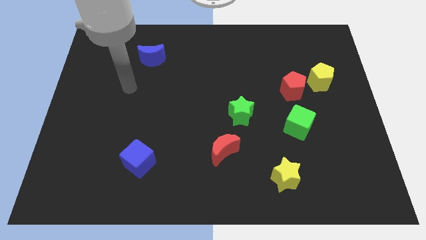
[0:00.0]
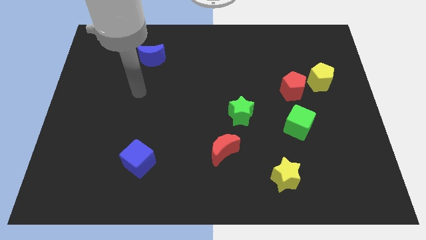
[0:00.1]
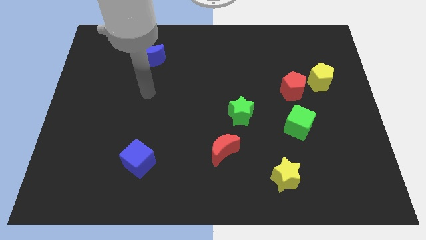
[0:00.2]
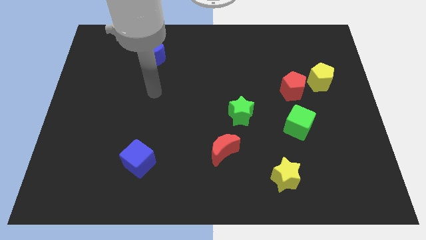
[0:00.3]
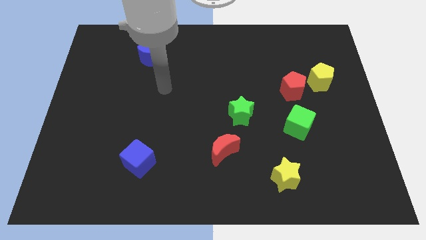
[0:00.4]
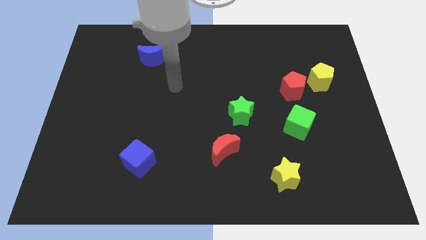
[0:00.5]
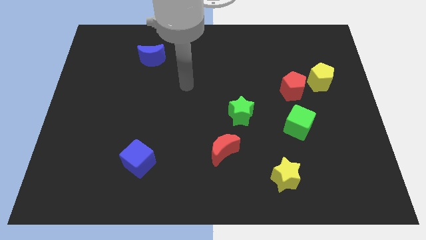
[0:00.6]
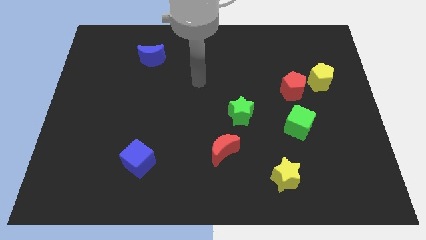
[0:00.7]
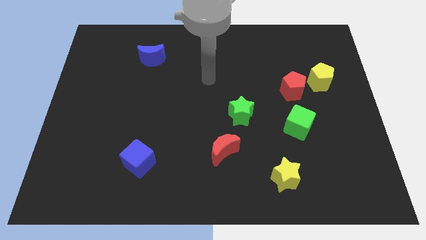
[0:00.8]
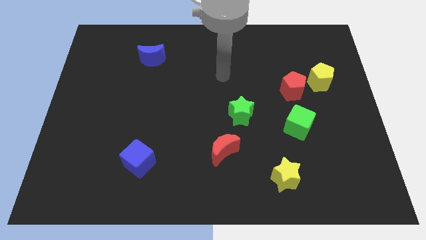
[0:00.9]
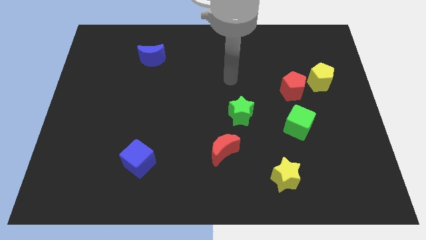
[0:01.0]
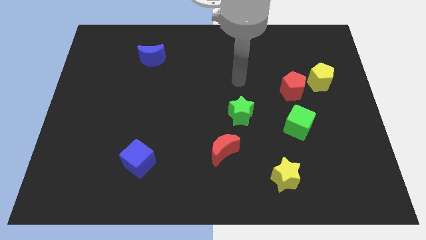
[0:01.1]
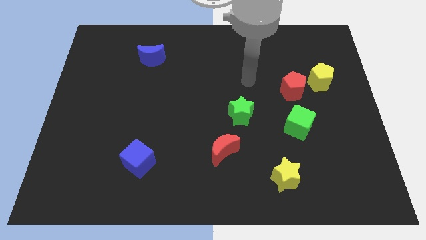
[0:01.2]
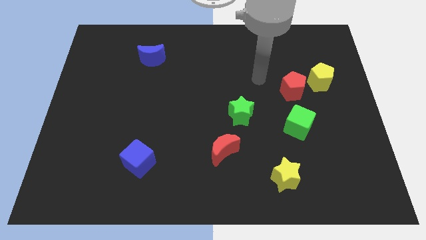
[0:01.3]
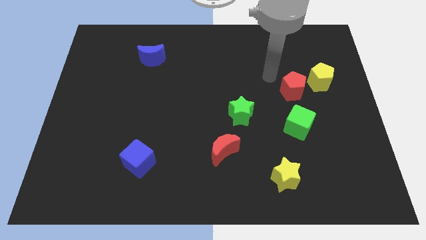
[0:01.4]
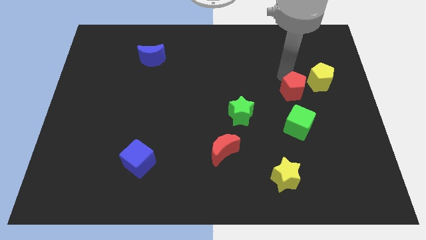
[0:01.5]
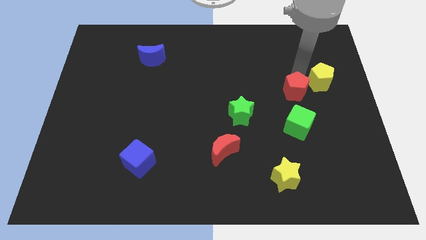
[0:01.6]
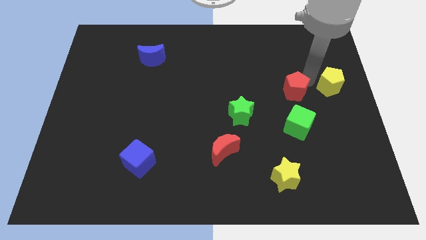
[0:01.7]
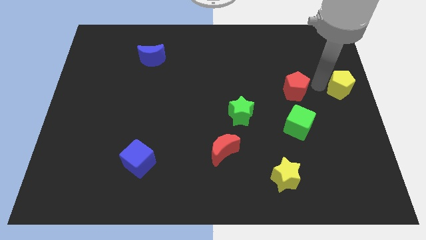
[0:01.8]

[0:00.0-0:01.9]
separate the red pentagon from the yellow pentagon

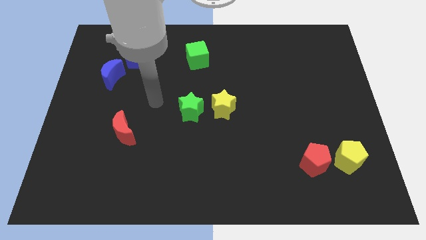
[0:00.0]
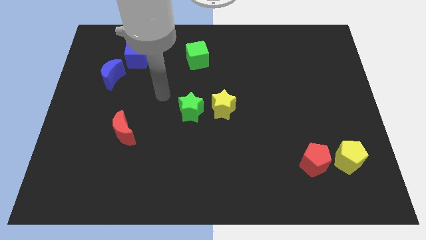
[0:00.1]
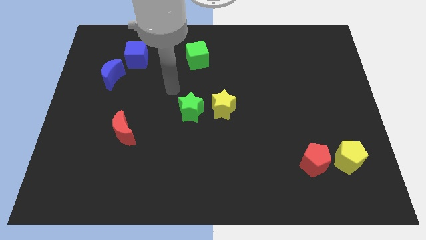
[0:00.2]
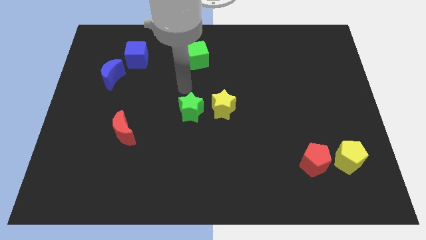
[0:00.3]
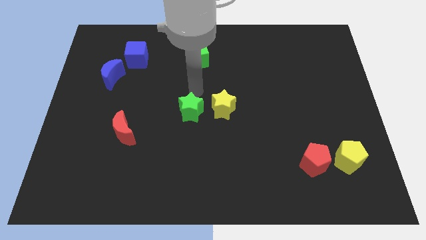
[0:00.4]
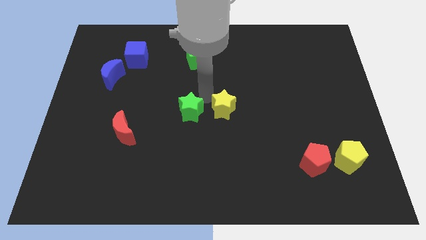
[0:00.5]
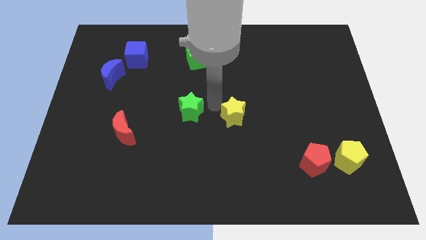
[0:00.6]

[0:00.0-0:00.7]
pull the green star apart from the yellow star

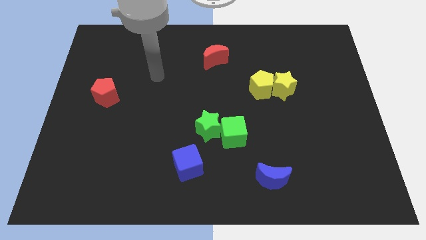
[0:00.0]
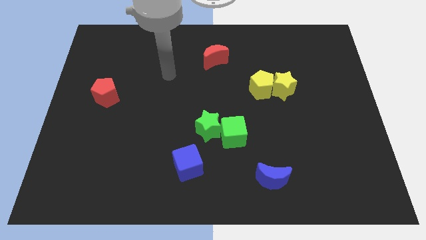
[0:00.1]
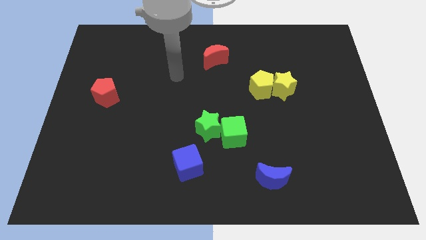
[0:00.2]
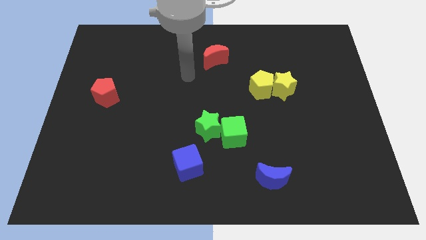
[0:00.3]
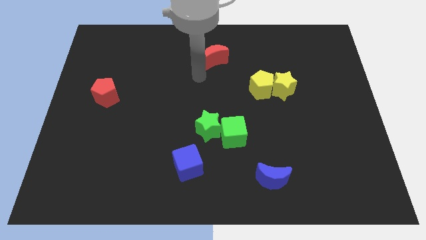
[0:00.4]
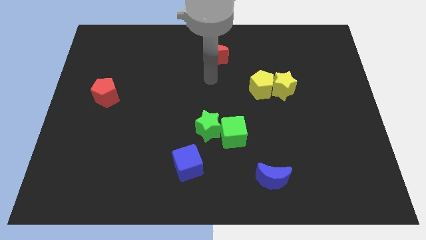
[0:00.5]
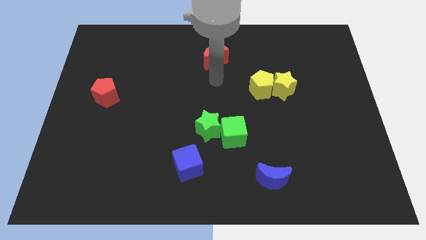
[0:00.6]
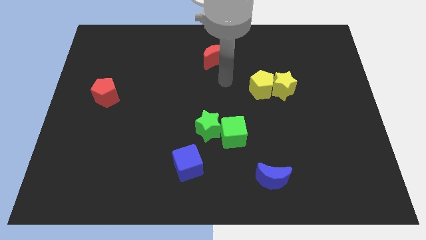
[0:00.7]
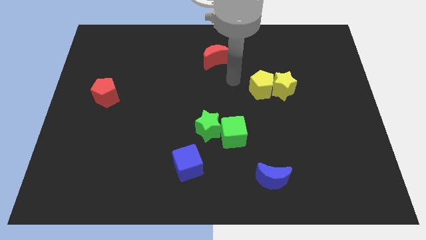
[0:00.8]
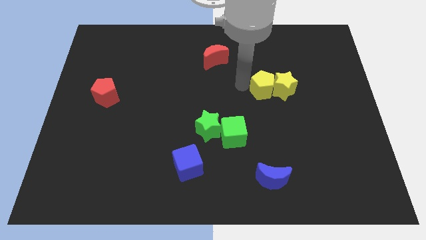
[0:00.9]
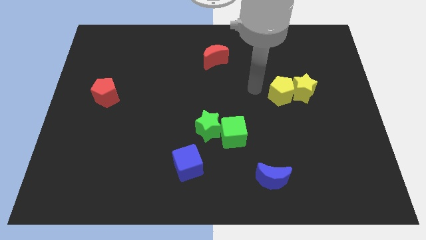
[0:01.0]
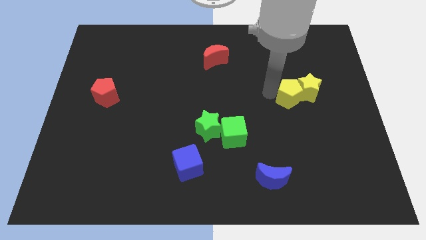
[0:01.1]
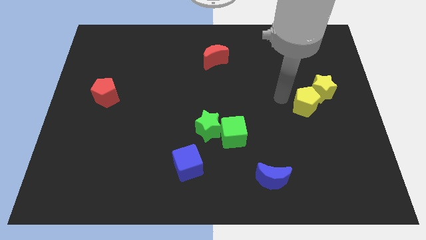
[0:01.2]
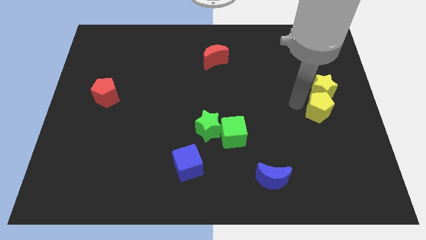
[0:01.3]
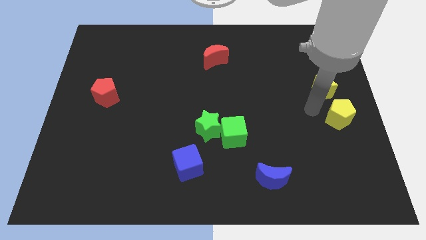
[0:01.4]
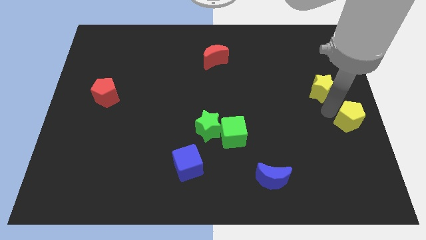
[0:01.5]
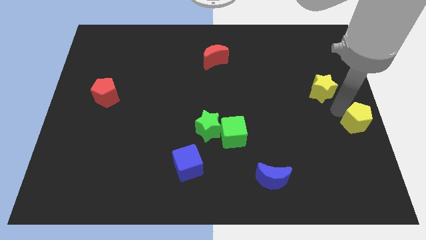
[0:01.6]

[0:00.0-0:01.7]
pull the yellow star apart from the yellow pentagon

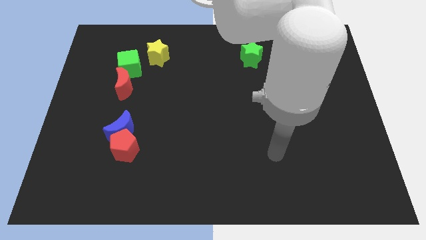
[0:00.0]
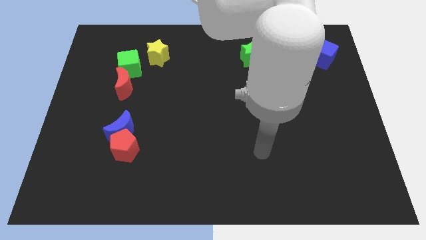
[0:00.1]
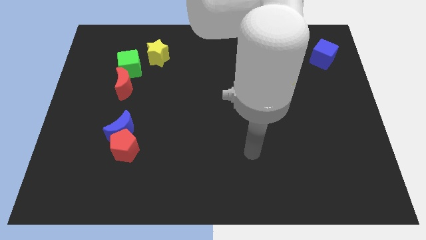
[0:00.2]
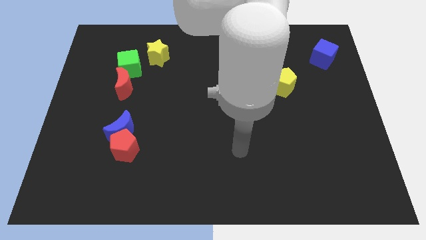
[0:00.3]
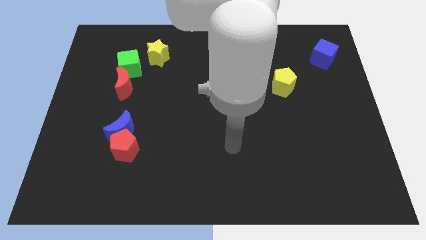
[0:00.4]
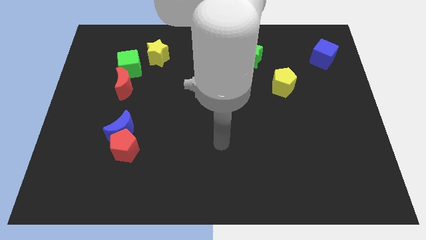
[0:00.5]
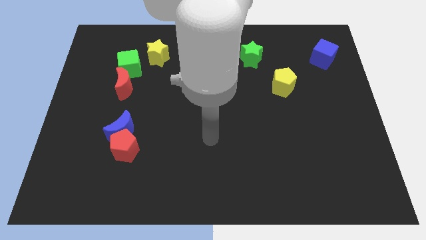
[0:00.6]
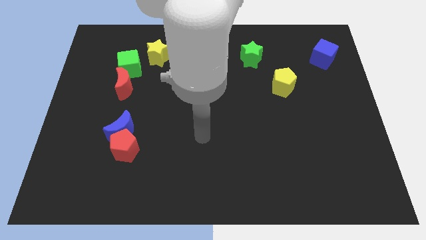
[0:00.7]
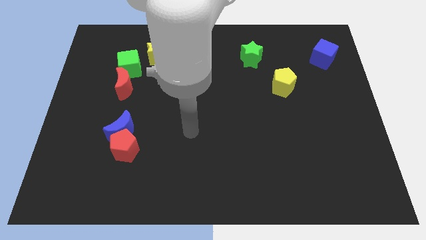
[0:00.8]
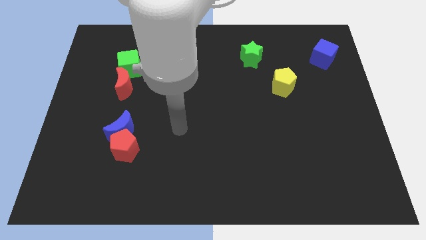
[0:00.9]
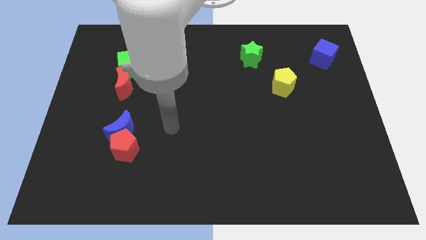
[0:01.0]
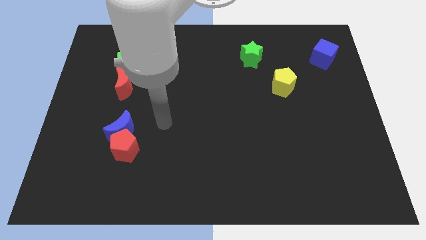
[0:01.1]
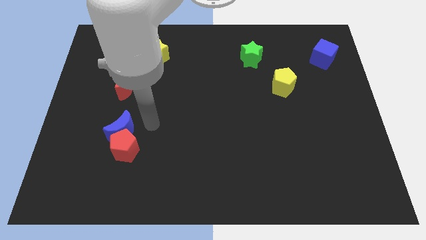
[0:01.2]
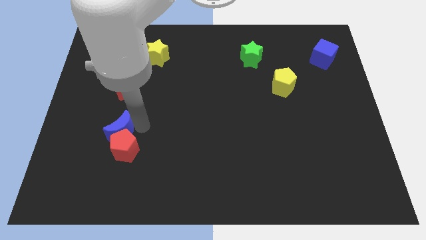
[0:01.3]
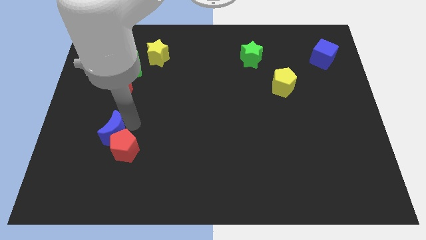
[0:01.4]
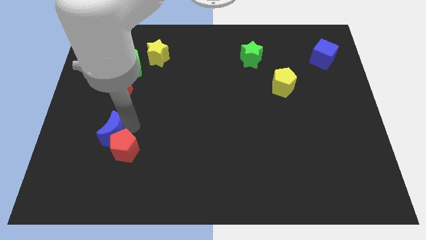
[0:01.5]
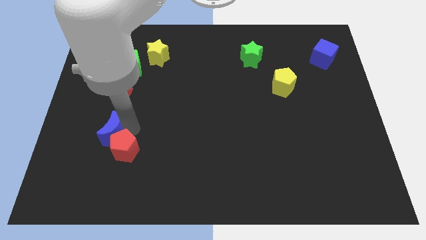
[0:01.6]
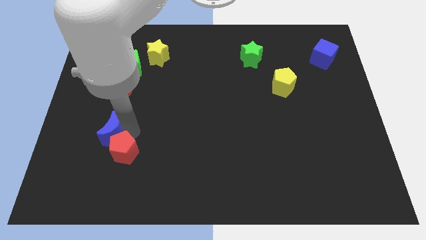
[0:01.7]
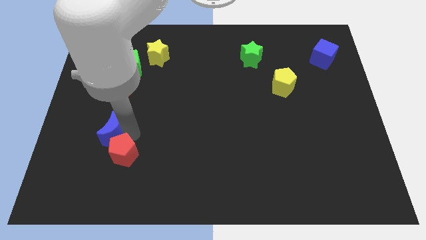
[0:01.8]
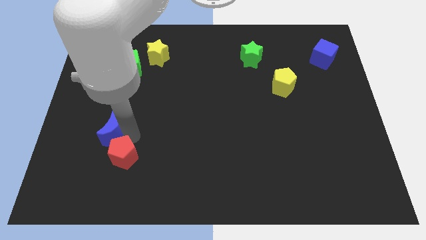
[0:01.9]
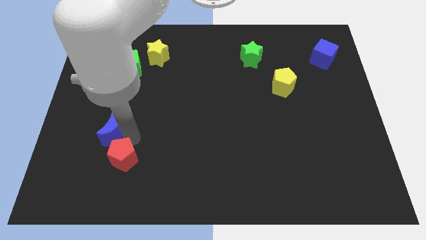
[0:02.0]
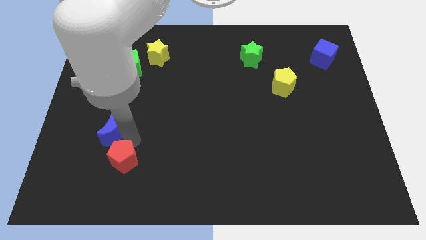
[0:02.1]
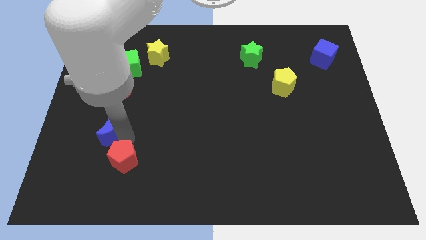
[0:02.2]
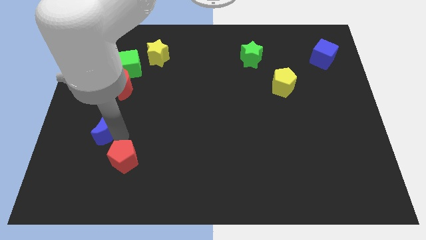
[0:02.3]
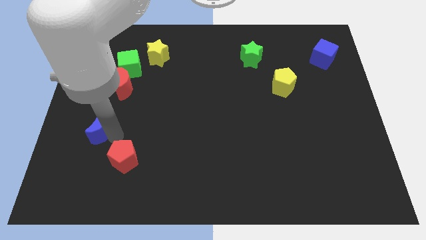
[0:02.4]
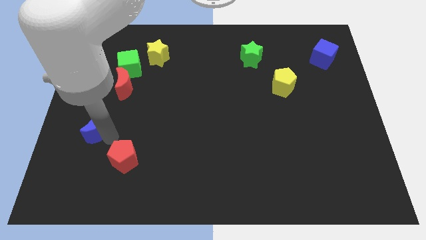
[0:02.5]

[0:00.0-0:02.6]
separate the red pentagon from the blue moon

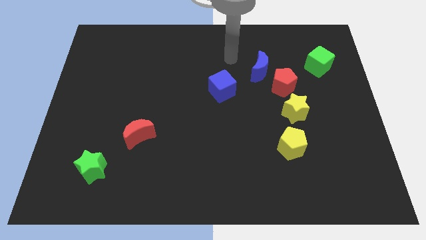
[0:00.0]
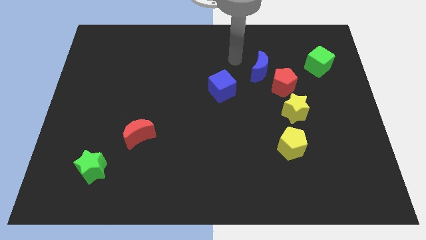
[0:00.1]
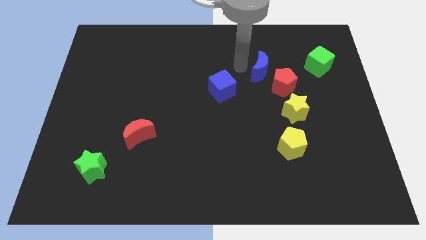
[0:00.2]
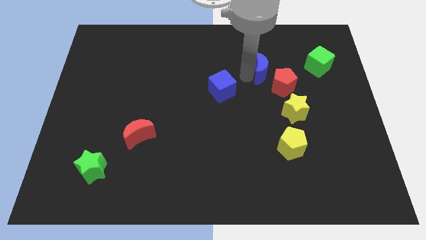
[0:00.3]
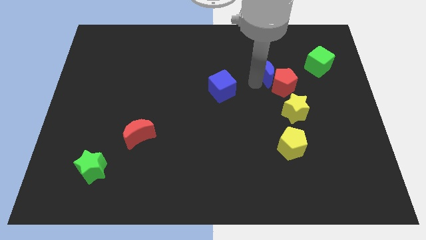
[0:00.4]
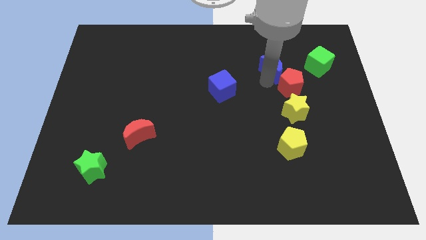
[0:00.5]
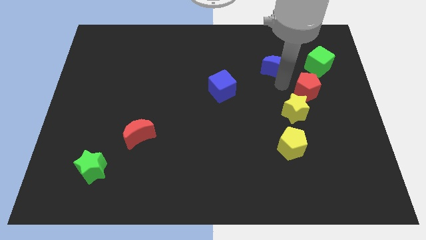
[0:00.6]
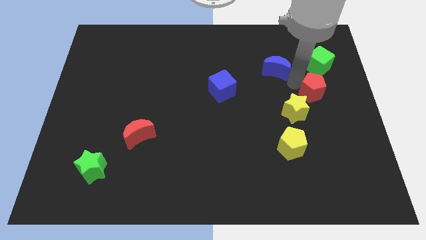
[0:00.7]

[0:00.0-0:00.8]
pull the blue moon apart from the red pentagon

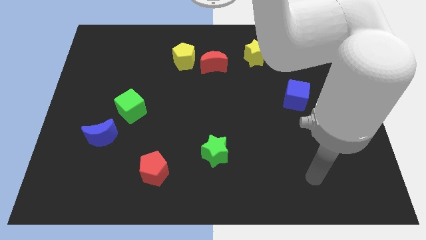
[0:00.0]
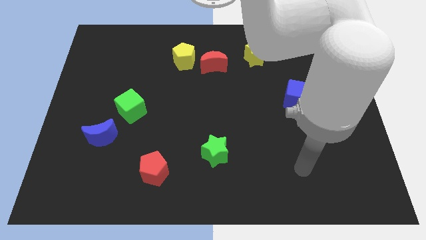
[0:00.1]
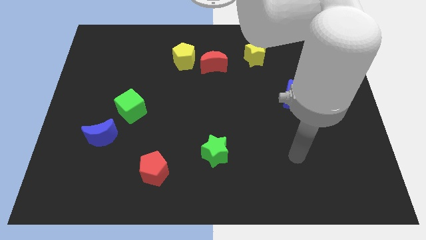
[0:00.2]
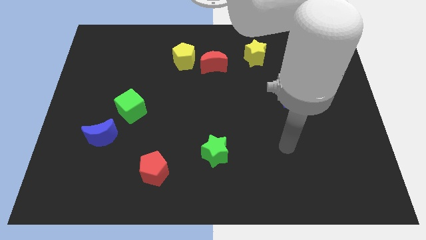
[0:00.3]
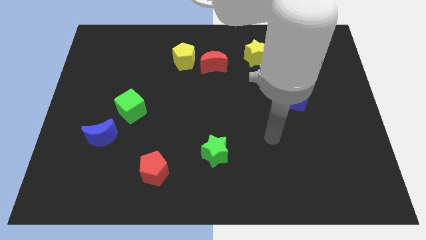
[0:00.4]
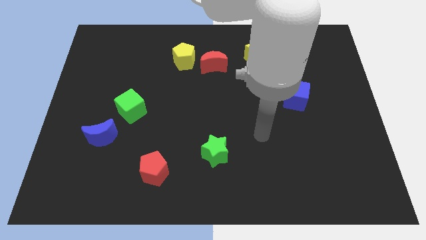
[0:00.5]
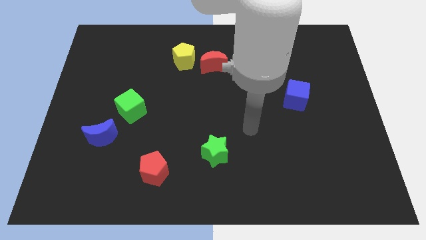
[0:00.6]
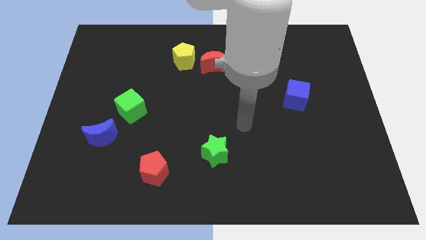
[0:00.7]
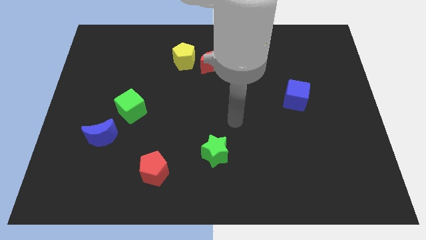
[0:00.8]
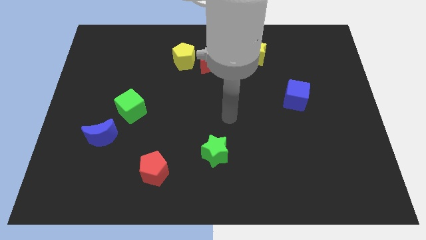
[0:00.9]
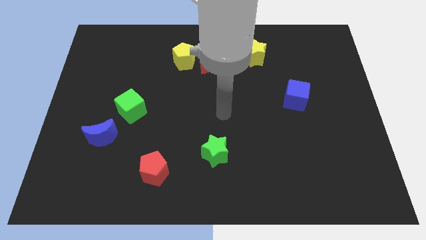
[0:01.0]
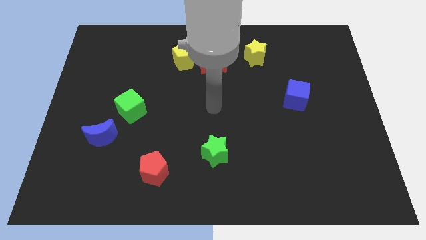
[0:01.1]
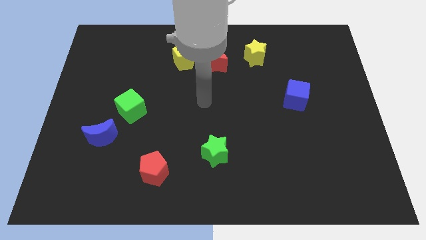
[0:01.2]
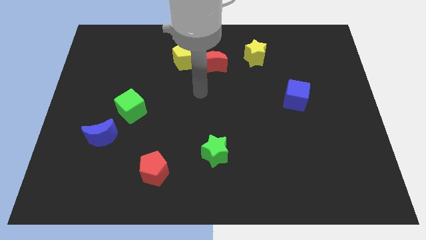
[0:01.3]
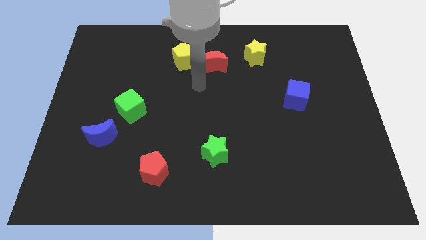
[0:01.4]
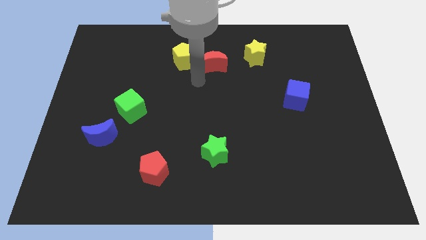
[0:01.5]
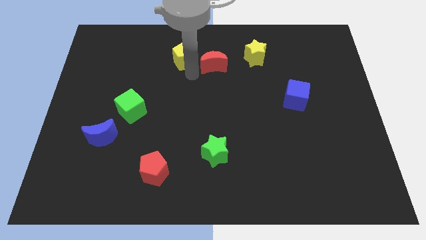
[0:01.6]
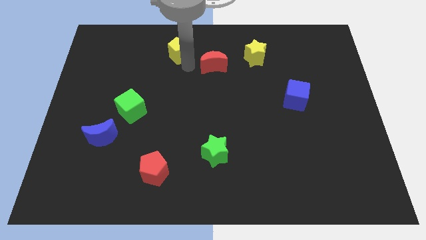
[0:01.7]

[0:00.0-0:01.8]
move the red moon away from the yellow pentagon
